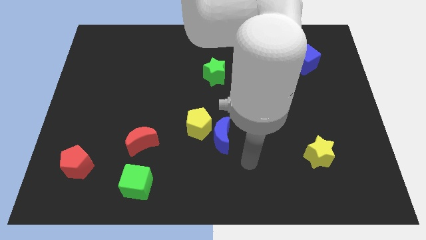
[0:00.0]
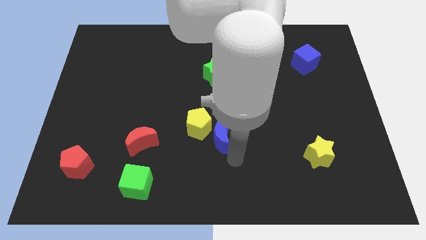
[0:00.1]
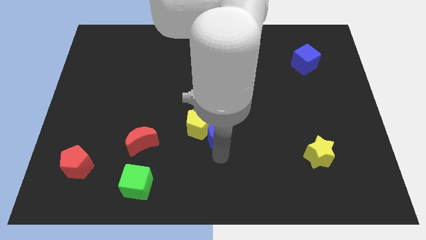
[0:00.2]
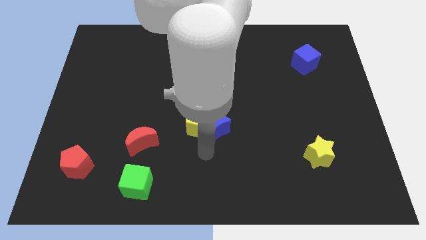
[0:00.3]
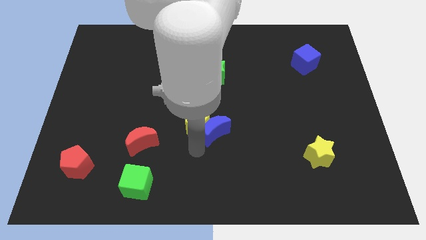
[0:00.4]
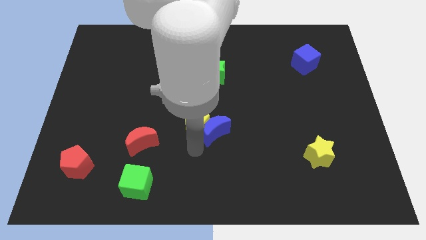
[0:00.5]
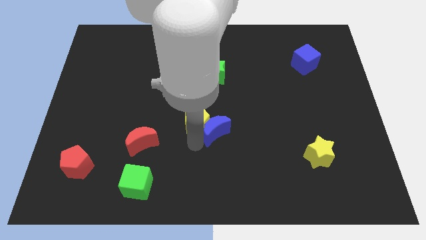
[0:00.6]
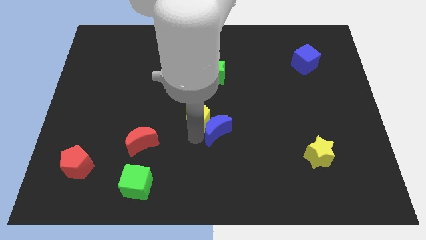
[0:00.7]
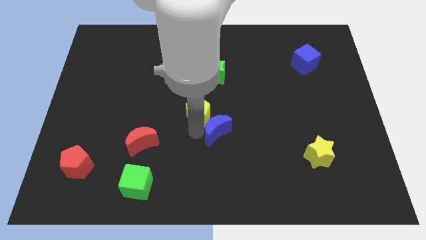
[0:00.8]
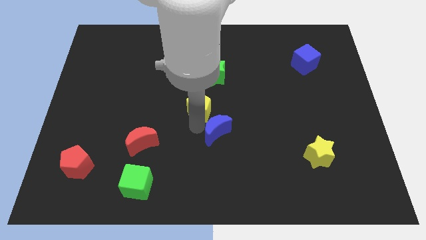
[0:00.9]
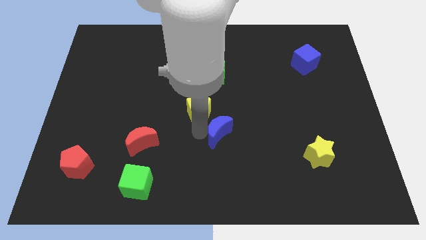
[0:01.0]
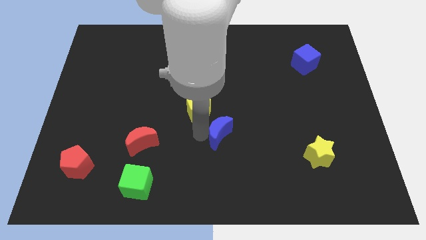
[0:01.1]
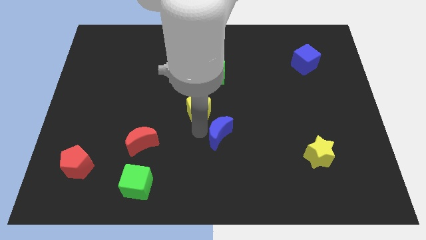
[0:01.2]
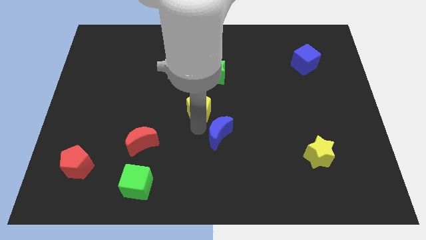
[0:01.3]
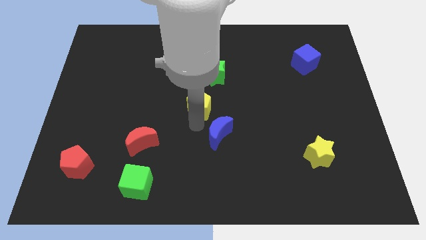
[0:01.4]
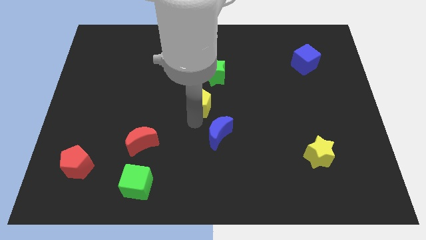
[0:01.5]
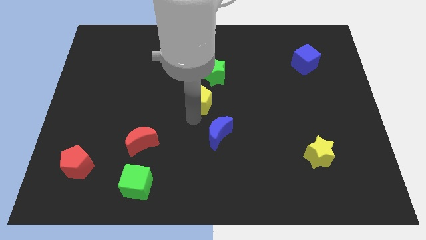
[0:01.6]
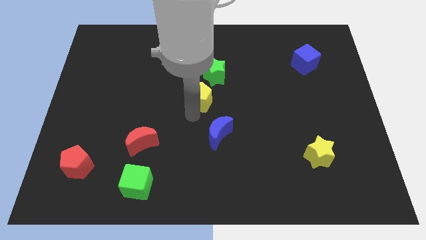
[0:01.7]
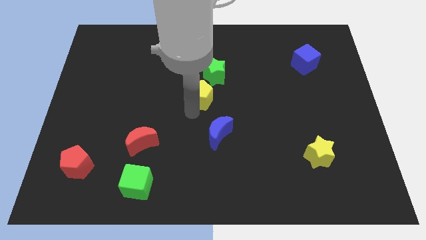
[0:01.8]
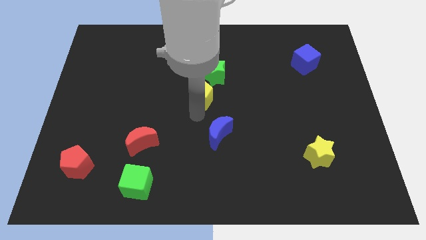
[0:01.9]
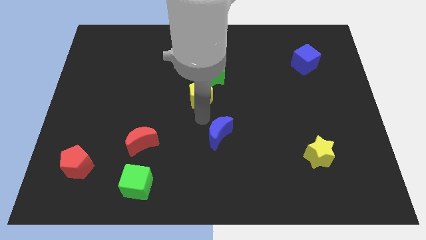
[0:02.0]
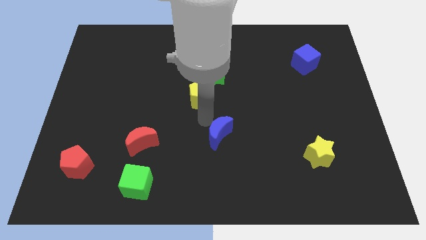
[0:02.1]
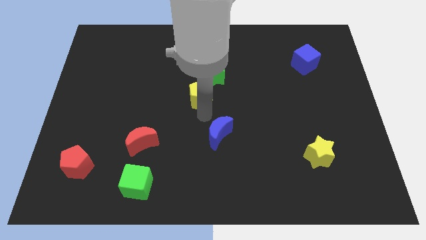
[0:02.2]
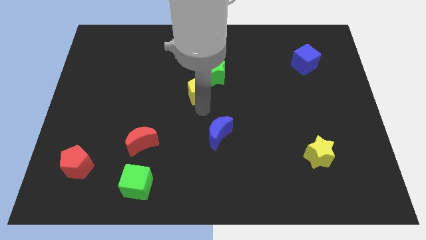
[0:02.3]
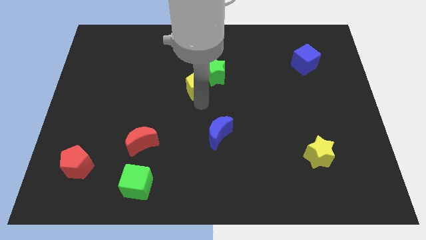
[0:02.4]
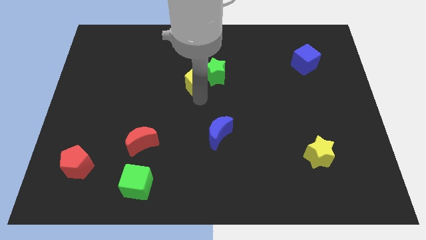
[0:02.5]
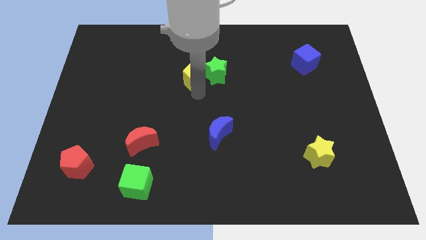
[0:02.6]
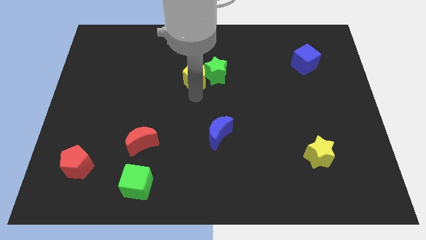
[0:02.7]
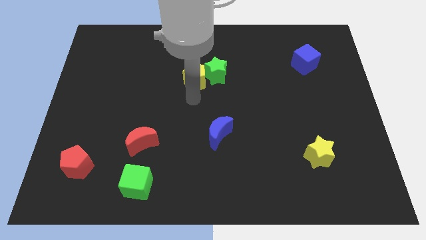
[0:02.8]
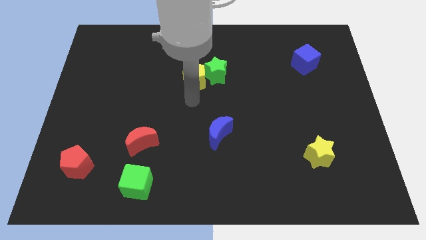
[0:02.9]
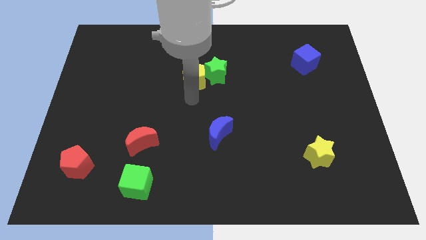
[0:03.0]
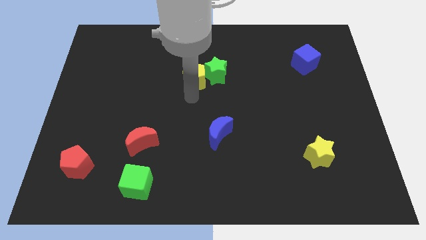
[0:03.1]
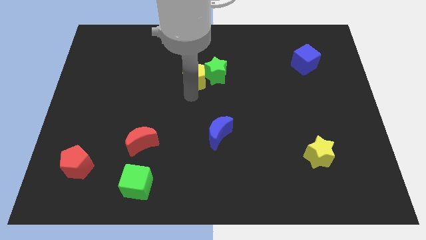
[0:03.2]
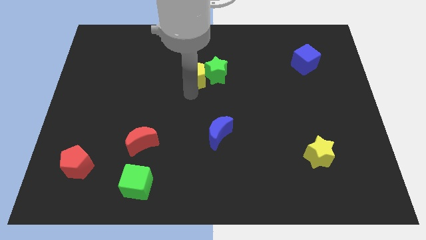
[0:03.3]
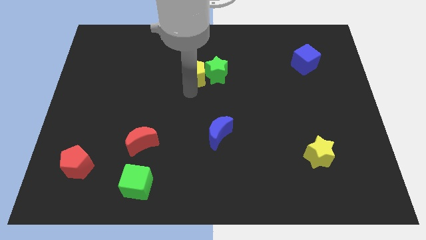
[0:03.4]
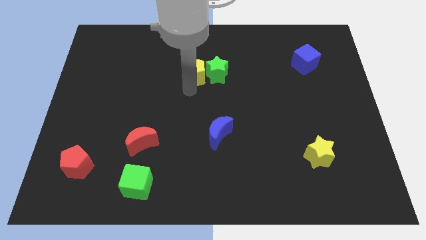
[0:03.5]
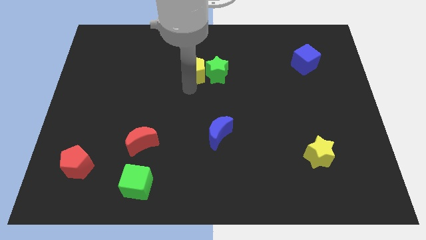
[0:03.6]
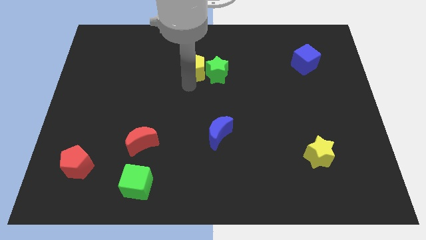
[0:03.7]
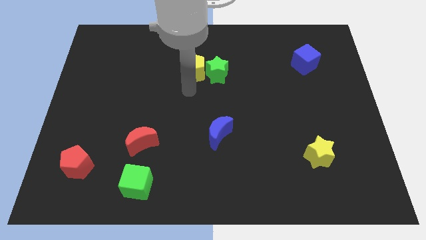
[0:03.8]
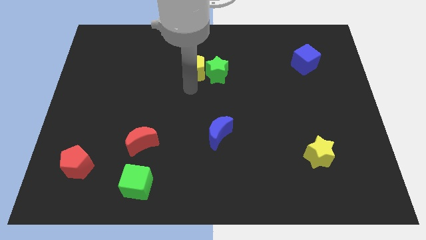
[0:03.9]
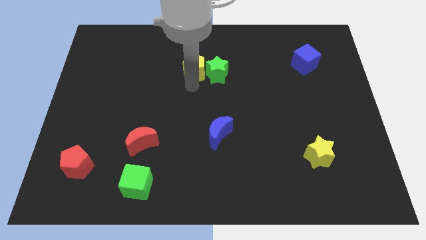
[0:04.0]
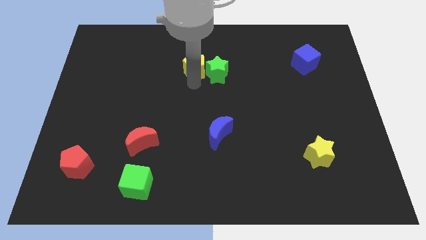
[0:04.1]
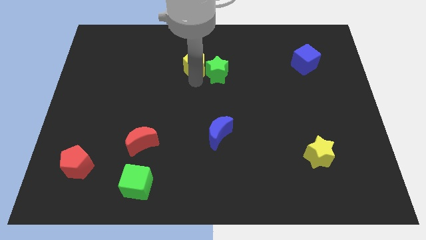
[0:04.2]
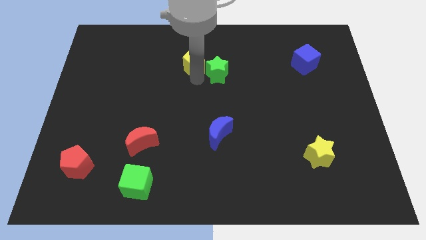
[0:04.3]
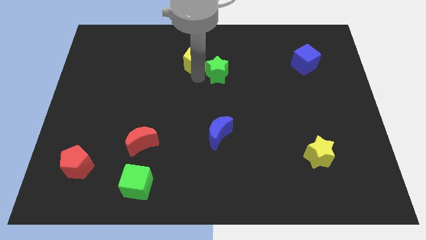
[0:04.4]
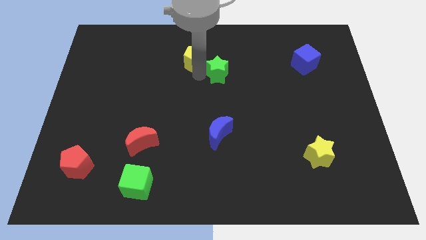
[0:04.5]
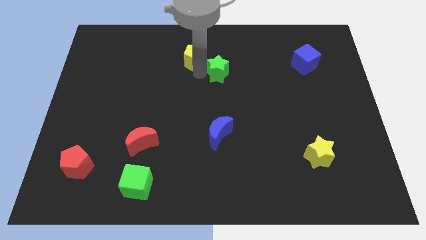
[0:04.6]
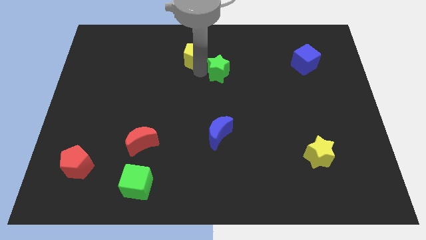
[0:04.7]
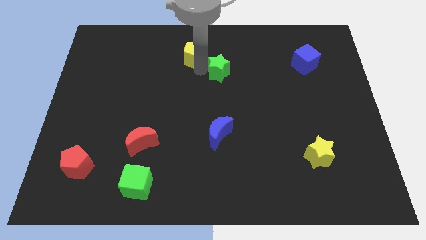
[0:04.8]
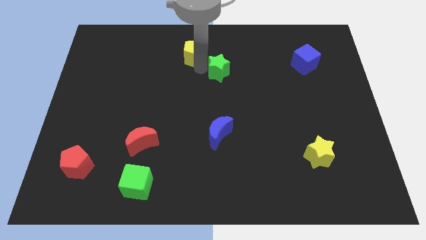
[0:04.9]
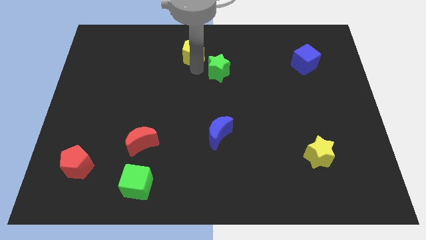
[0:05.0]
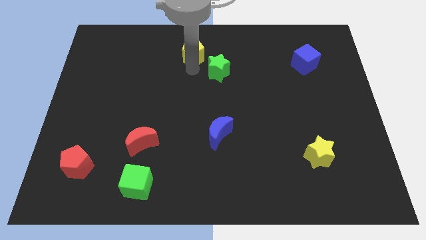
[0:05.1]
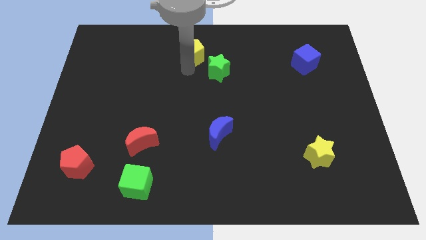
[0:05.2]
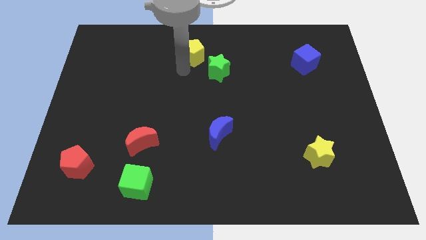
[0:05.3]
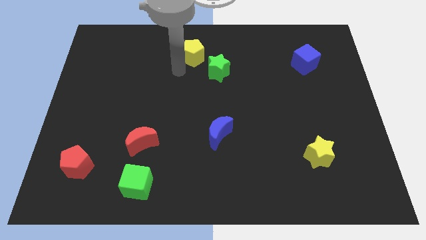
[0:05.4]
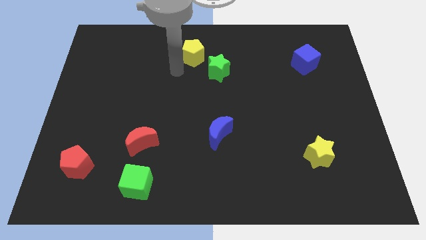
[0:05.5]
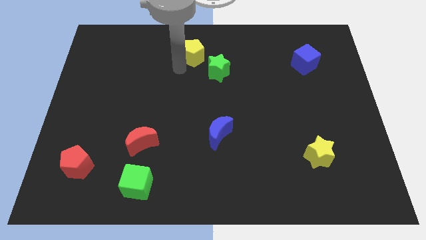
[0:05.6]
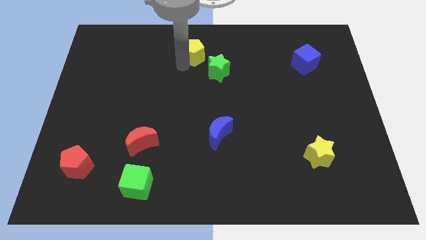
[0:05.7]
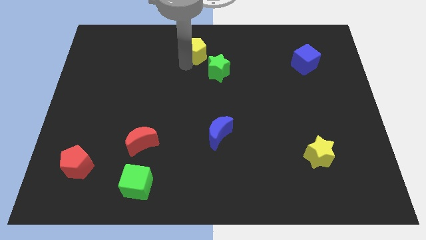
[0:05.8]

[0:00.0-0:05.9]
push the yellow pentagon to the top side

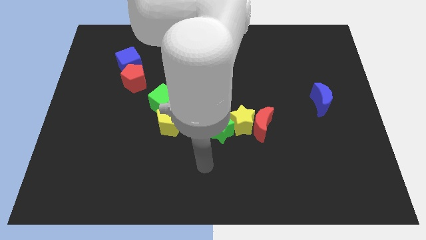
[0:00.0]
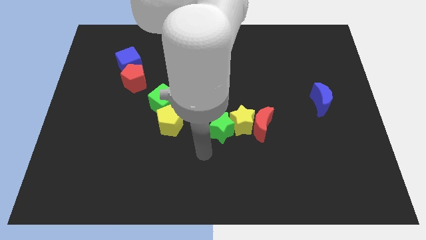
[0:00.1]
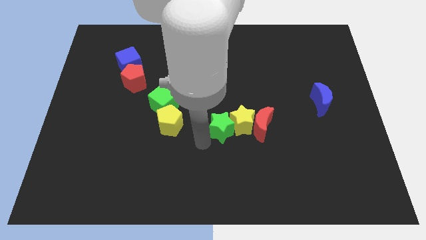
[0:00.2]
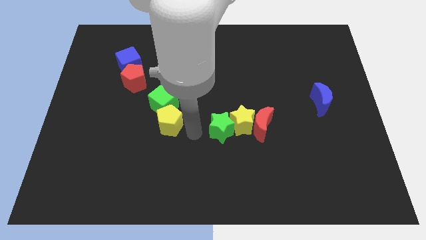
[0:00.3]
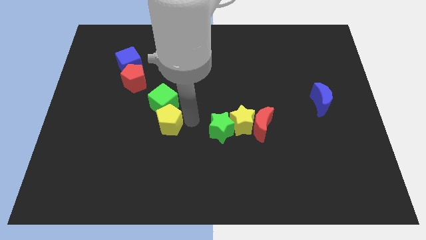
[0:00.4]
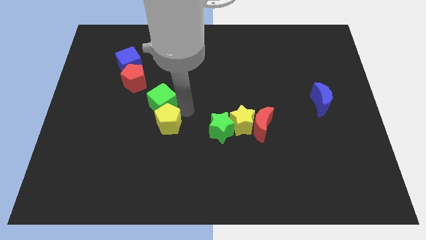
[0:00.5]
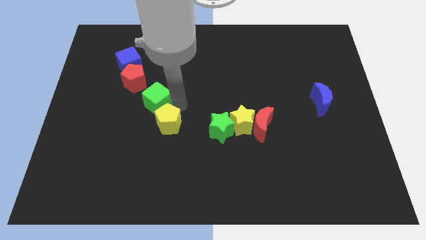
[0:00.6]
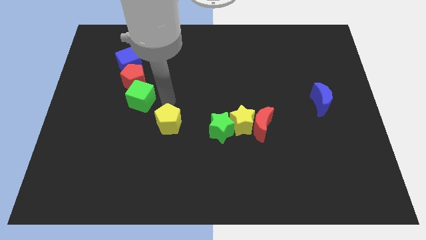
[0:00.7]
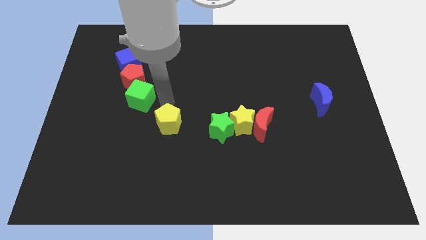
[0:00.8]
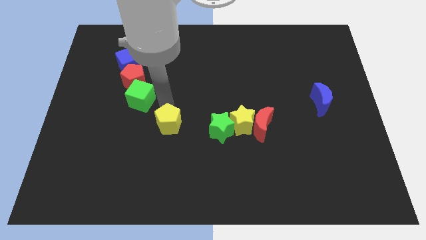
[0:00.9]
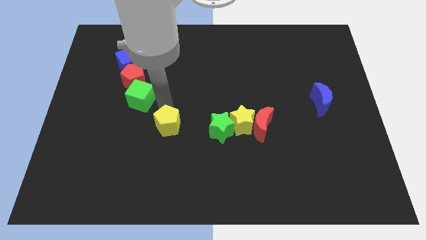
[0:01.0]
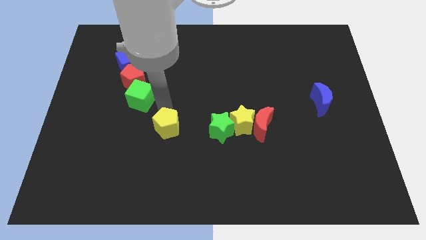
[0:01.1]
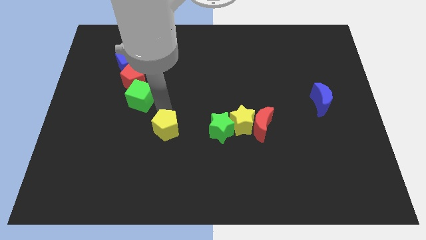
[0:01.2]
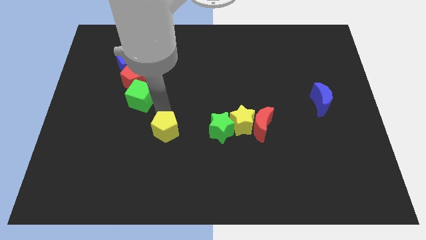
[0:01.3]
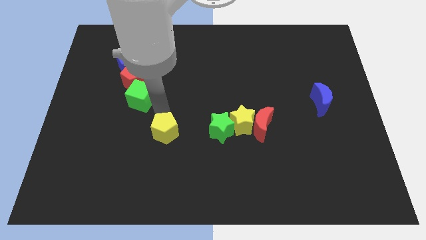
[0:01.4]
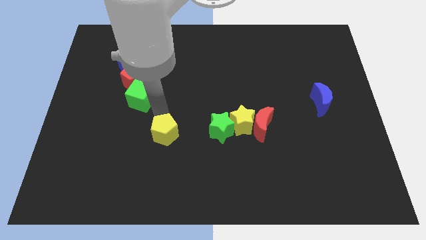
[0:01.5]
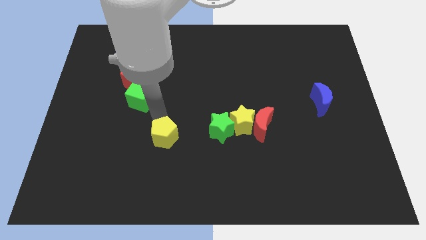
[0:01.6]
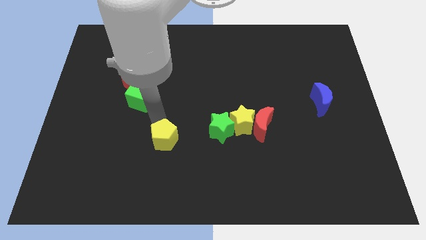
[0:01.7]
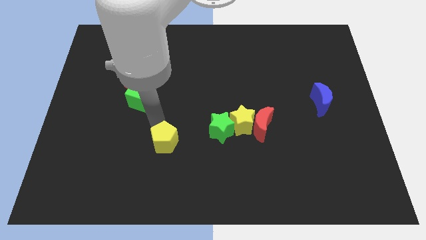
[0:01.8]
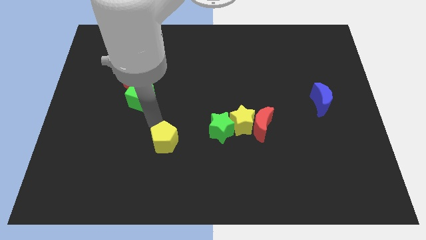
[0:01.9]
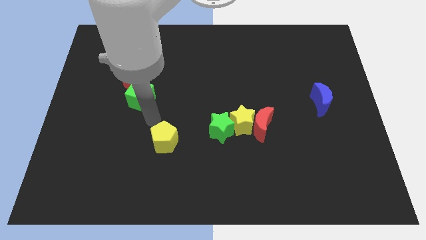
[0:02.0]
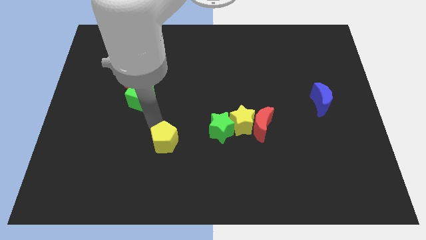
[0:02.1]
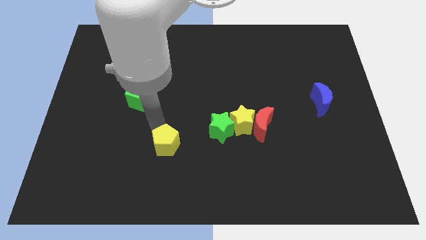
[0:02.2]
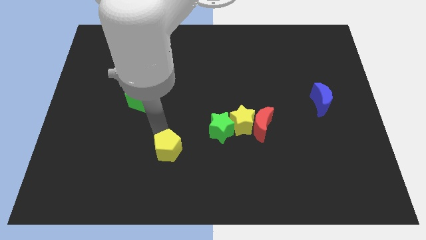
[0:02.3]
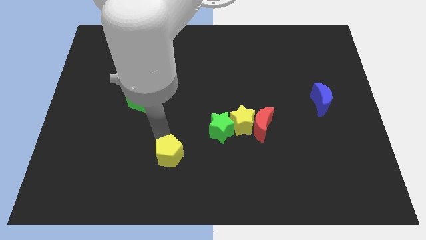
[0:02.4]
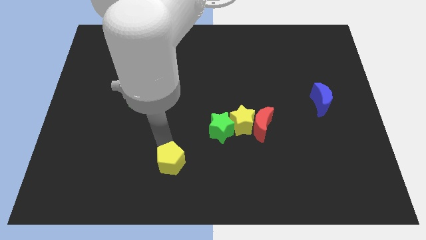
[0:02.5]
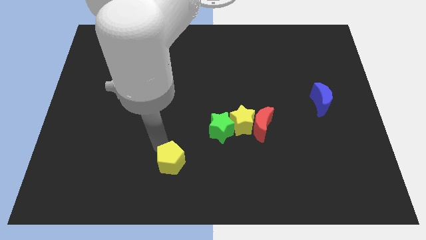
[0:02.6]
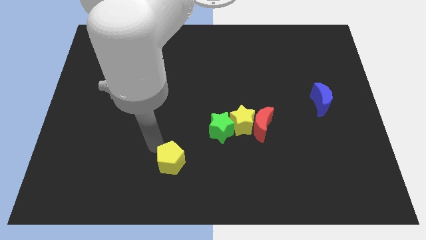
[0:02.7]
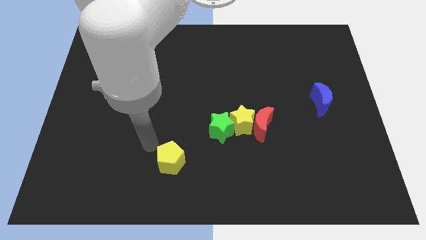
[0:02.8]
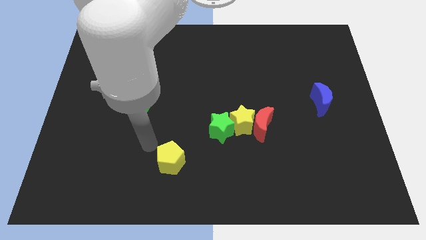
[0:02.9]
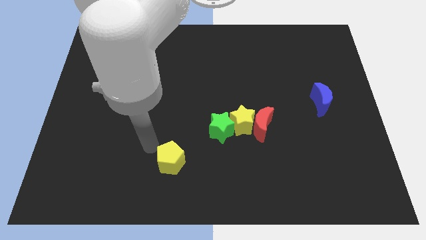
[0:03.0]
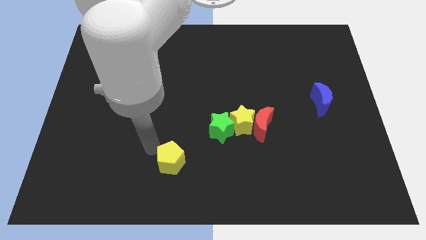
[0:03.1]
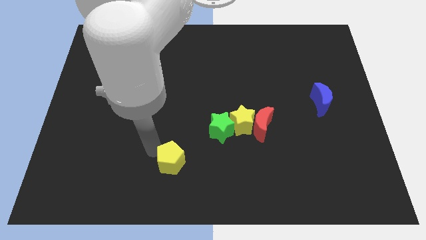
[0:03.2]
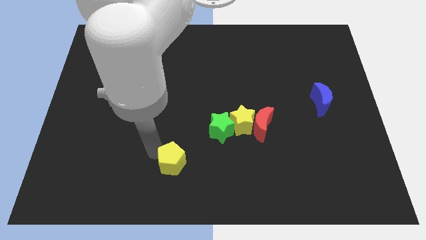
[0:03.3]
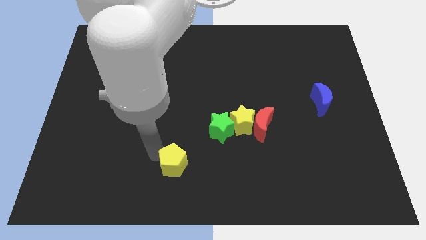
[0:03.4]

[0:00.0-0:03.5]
put the yellow pentagon to the bottom
